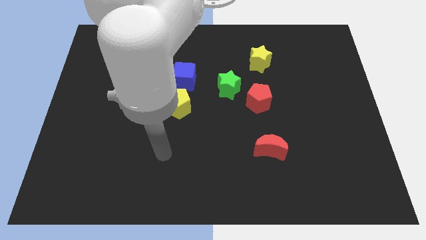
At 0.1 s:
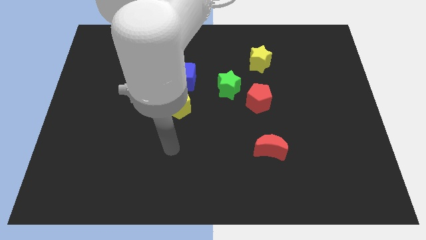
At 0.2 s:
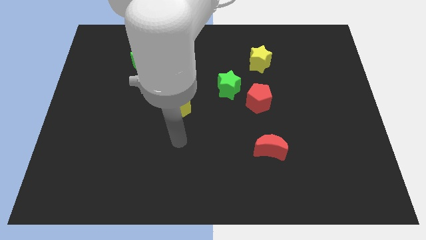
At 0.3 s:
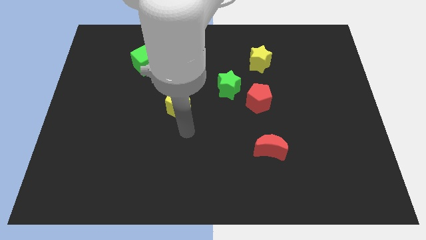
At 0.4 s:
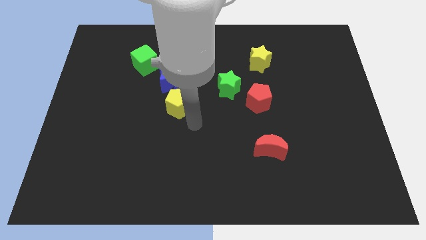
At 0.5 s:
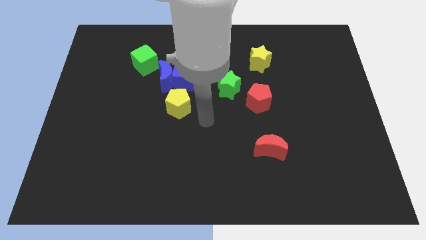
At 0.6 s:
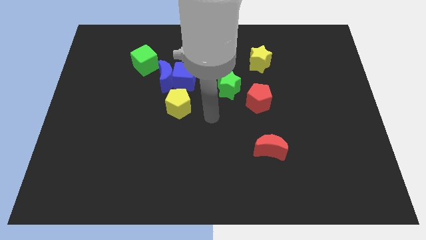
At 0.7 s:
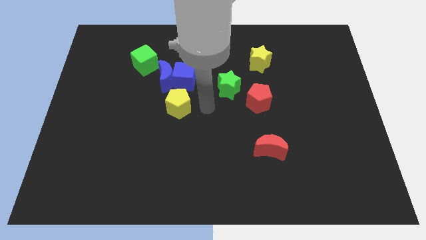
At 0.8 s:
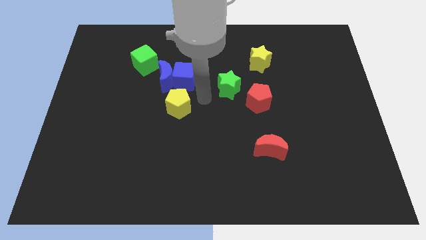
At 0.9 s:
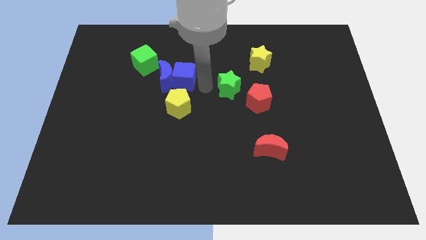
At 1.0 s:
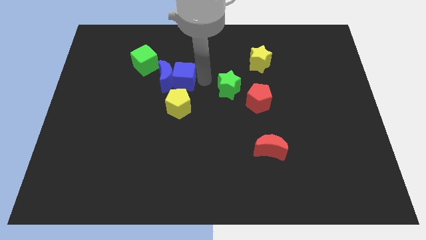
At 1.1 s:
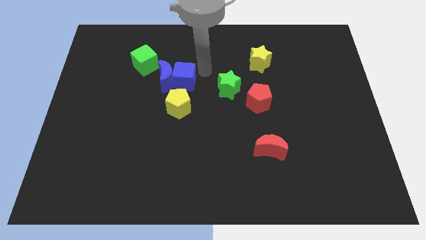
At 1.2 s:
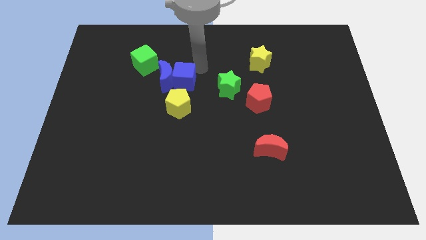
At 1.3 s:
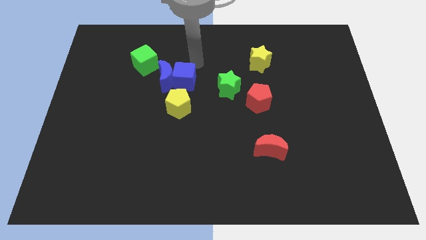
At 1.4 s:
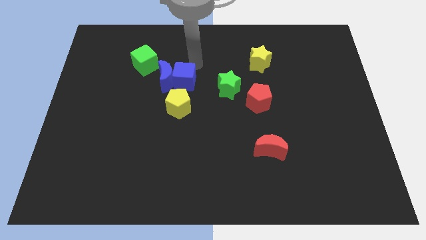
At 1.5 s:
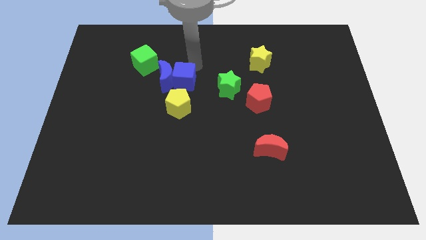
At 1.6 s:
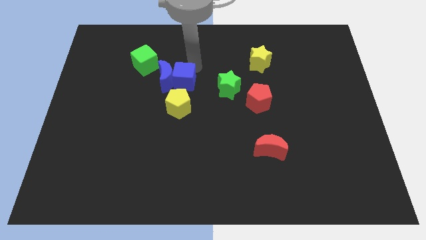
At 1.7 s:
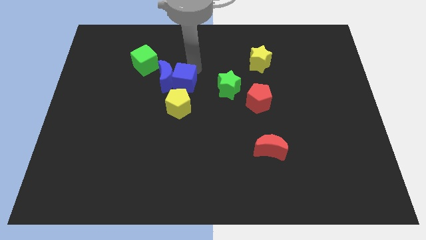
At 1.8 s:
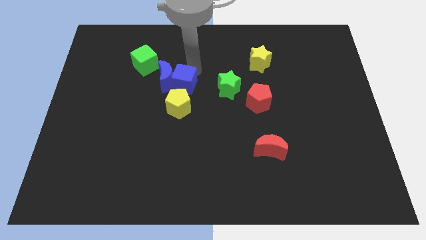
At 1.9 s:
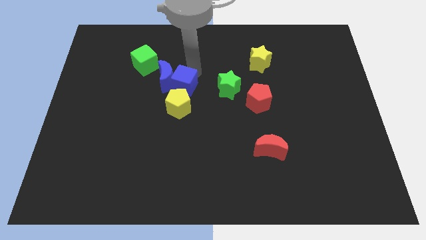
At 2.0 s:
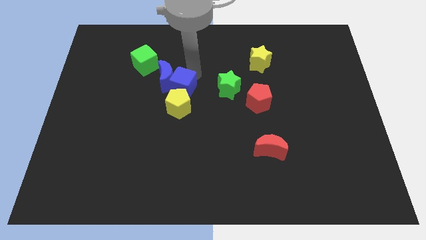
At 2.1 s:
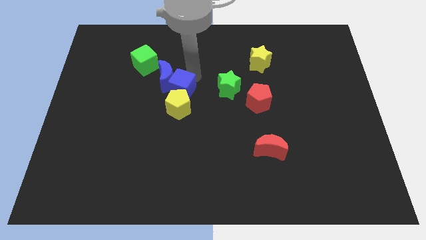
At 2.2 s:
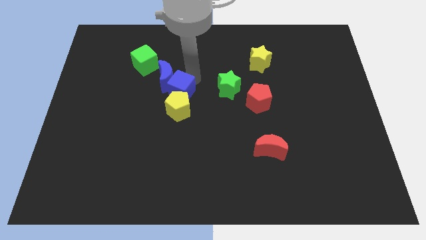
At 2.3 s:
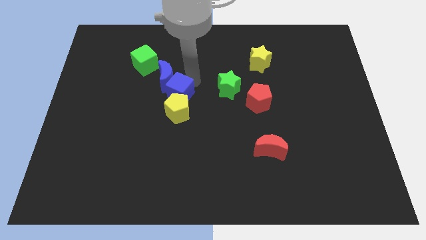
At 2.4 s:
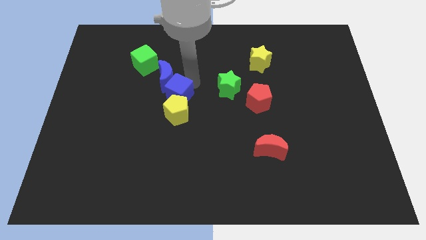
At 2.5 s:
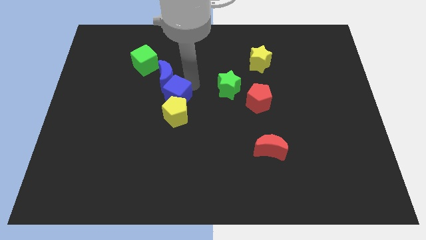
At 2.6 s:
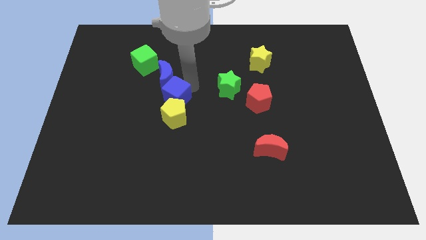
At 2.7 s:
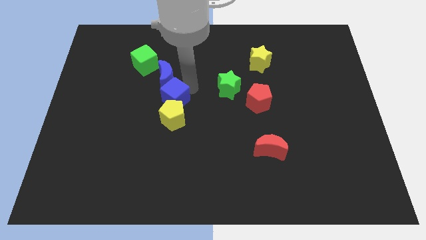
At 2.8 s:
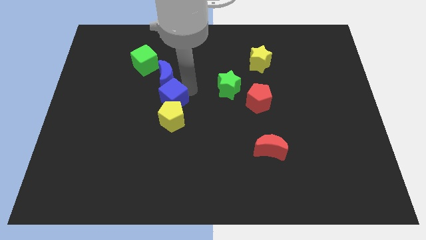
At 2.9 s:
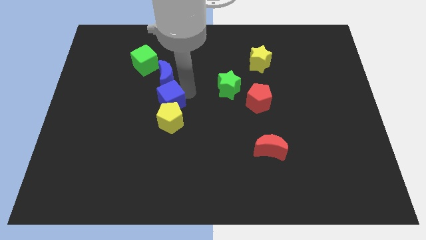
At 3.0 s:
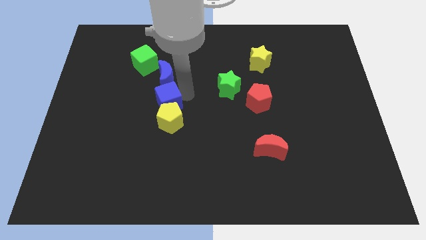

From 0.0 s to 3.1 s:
slide the blue cube diagonally downwards and left slightly

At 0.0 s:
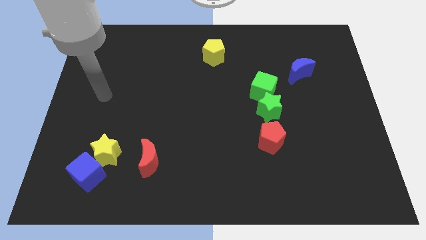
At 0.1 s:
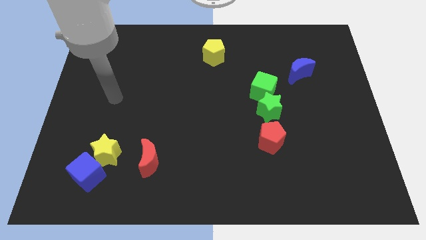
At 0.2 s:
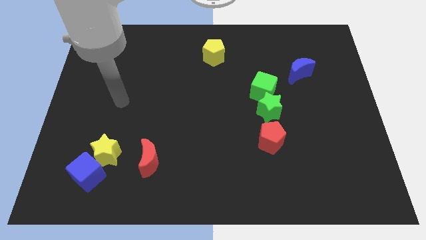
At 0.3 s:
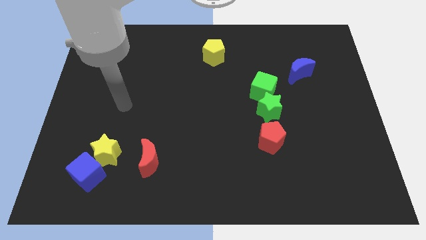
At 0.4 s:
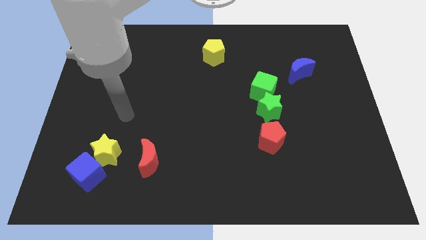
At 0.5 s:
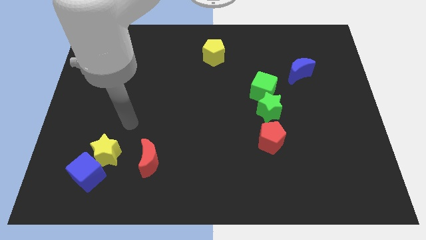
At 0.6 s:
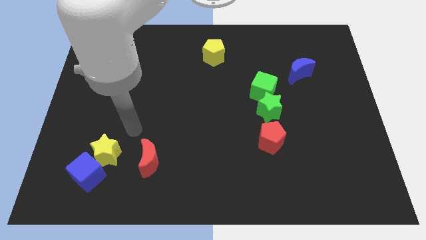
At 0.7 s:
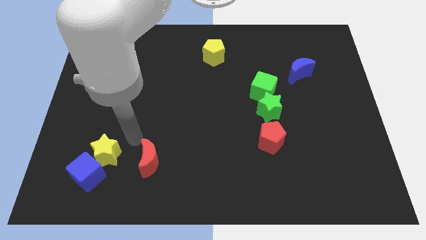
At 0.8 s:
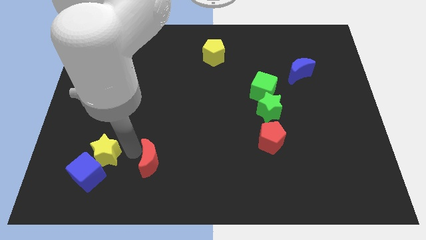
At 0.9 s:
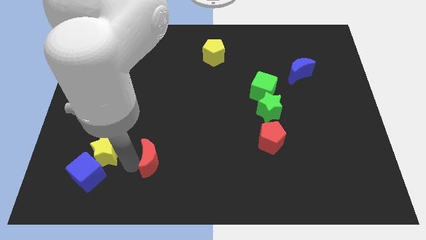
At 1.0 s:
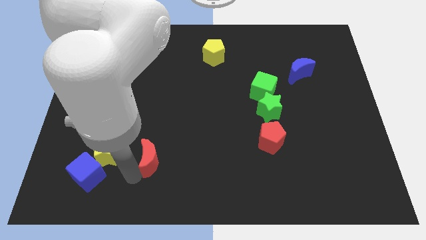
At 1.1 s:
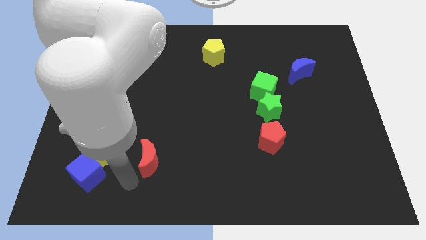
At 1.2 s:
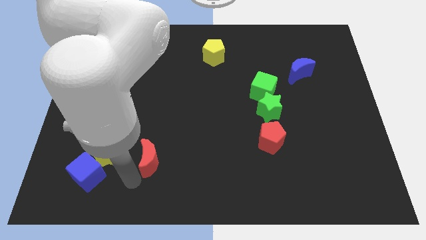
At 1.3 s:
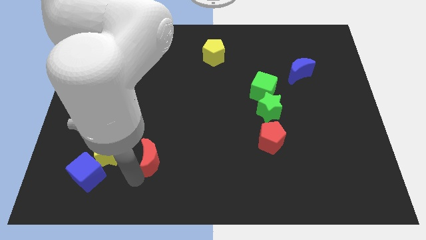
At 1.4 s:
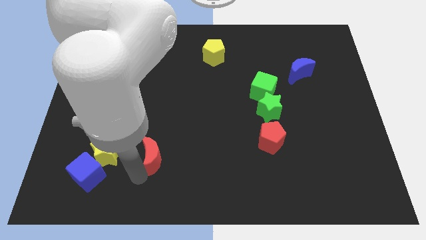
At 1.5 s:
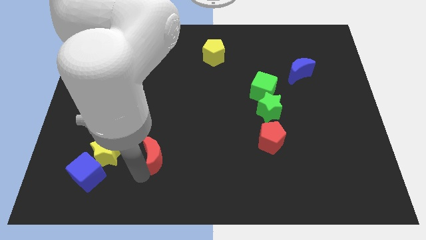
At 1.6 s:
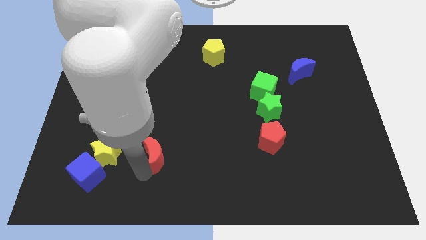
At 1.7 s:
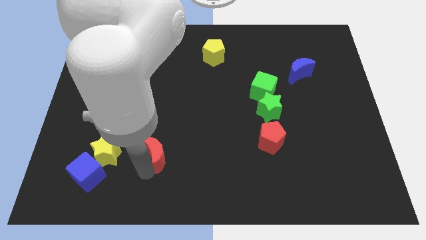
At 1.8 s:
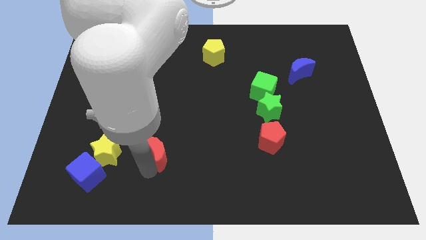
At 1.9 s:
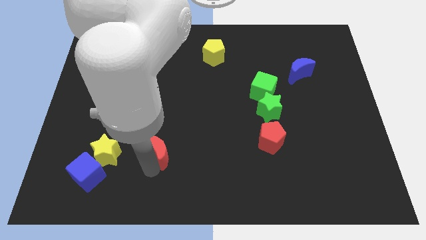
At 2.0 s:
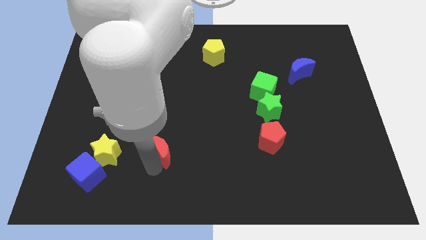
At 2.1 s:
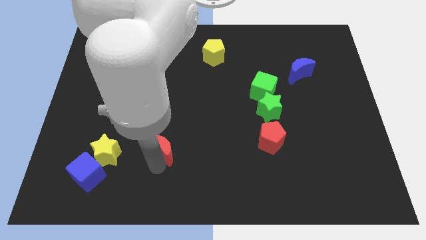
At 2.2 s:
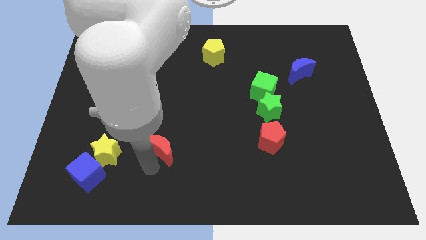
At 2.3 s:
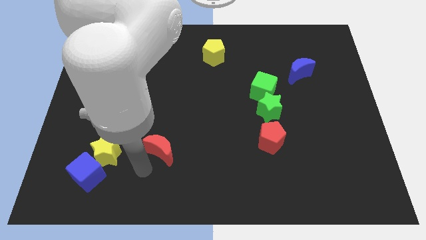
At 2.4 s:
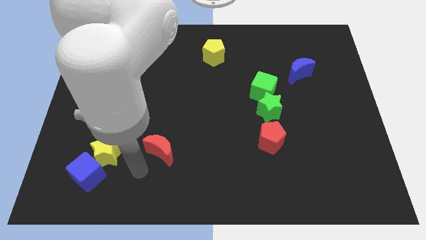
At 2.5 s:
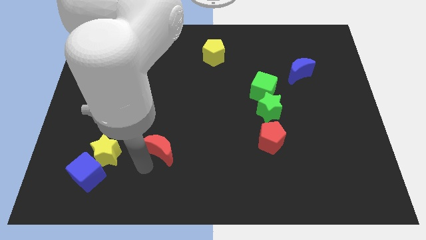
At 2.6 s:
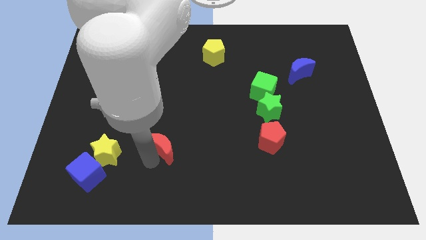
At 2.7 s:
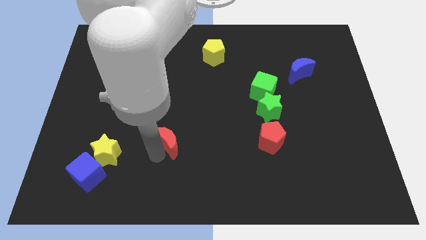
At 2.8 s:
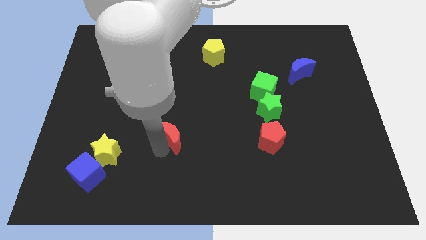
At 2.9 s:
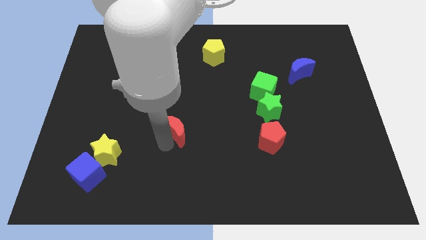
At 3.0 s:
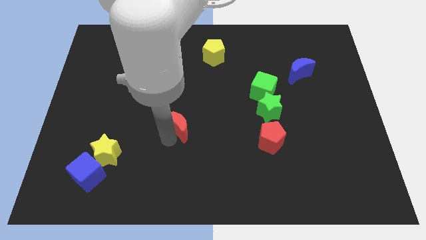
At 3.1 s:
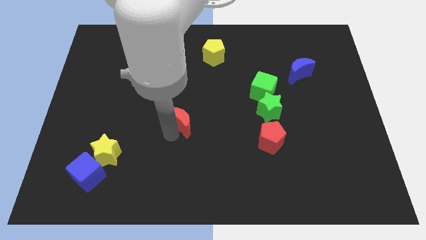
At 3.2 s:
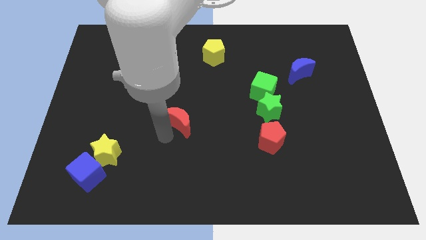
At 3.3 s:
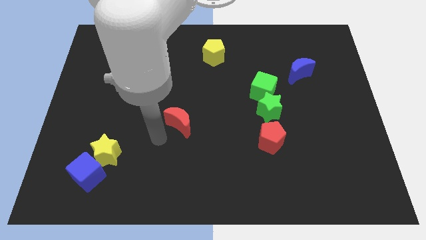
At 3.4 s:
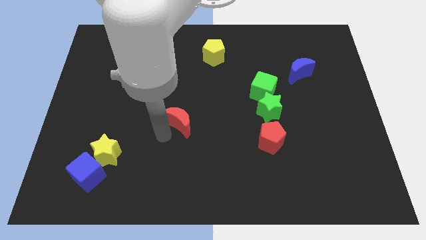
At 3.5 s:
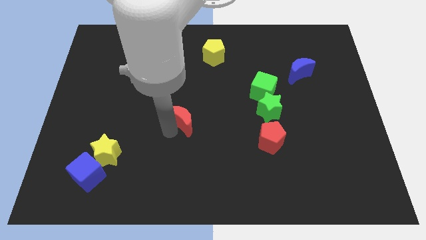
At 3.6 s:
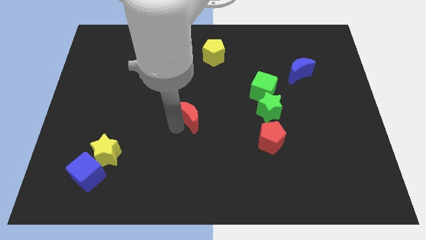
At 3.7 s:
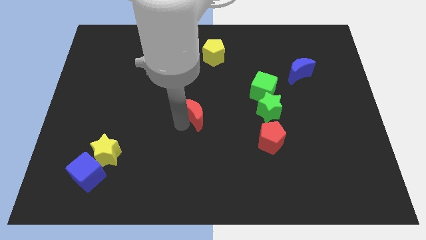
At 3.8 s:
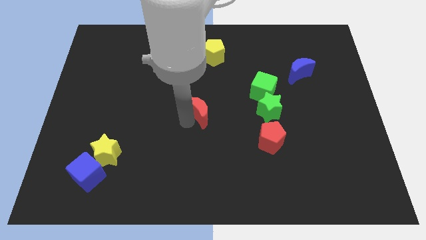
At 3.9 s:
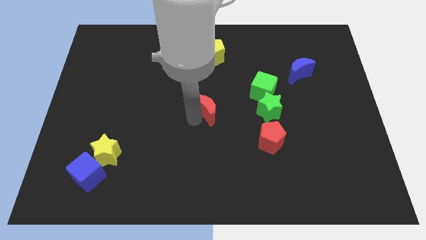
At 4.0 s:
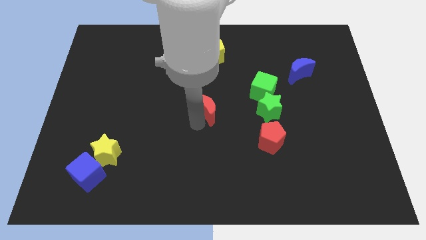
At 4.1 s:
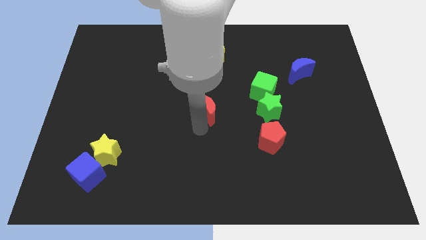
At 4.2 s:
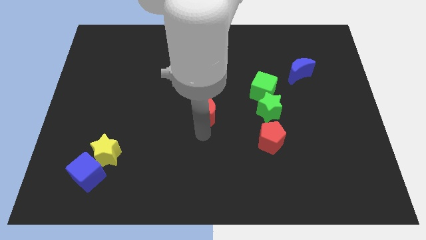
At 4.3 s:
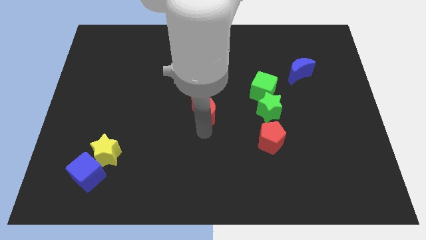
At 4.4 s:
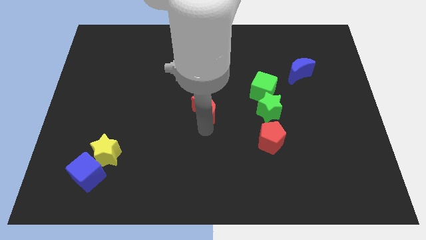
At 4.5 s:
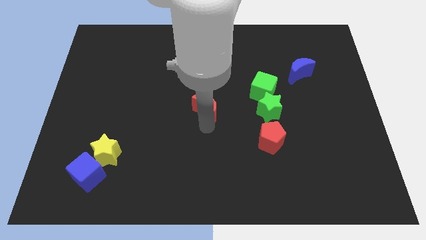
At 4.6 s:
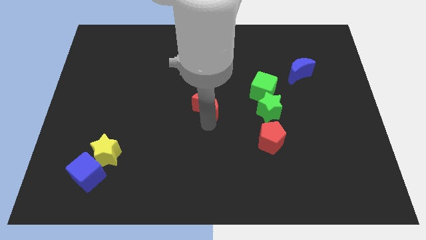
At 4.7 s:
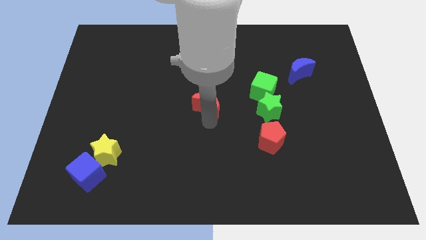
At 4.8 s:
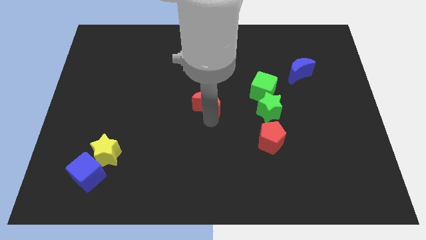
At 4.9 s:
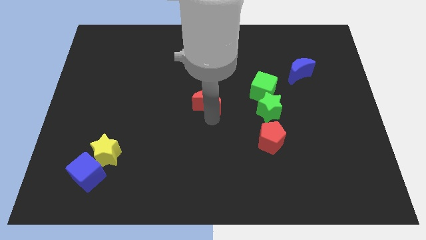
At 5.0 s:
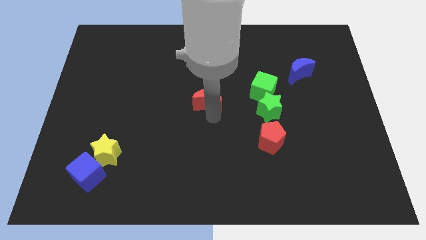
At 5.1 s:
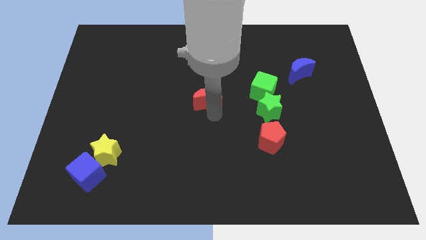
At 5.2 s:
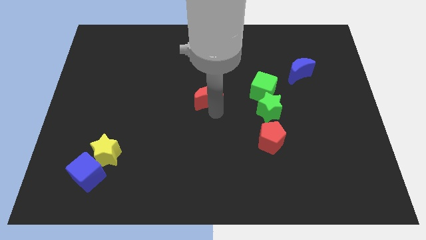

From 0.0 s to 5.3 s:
push the red moon up and right diagonally

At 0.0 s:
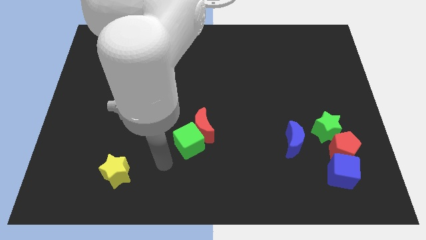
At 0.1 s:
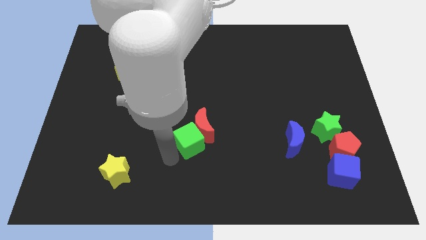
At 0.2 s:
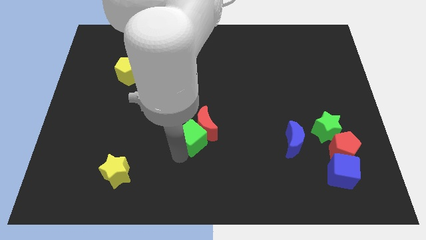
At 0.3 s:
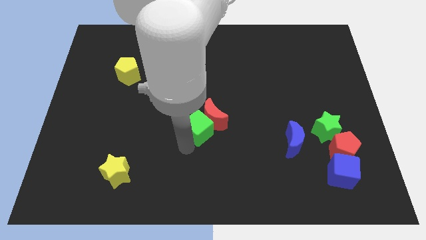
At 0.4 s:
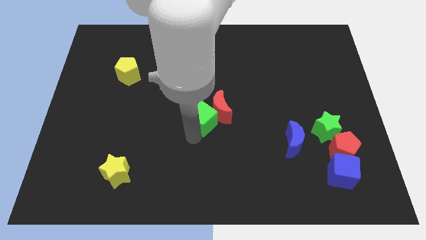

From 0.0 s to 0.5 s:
push the red moon a little up and right diagonally
